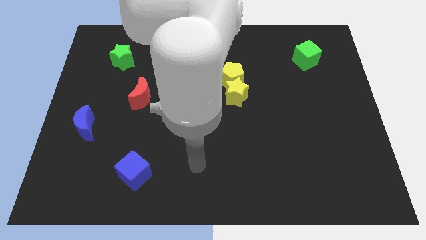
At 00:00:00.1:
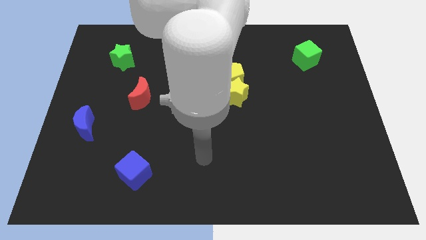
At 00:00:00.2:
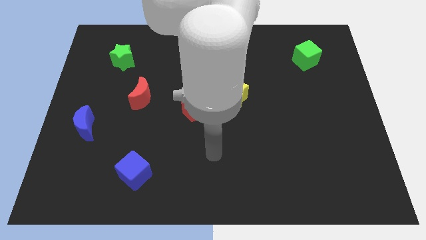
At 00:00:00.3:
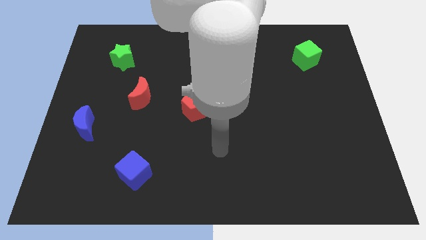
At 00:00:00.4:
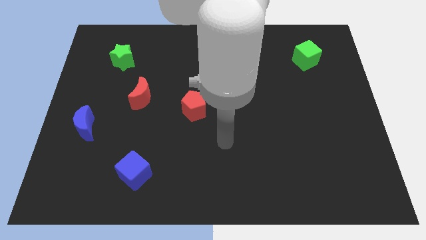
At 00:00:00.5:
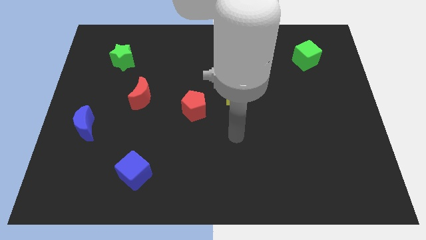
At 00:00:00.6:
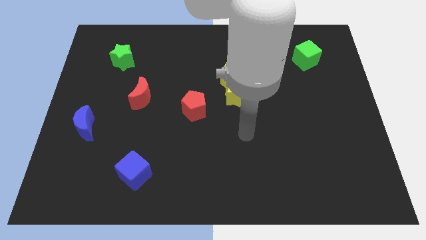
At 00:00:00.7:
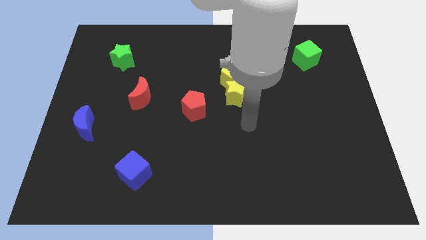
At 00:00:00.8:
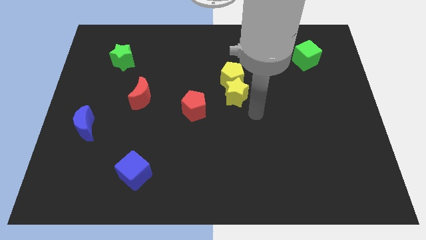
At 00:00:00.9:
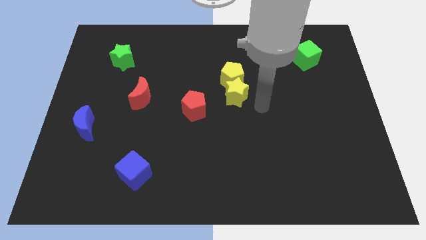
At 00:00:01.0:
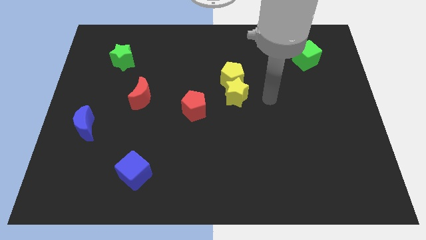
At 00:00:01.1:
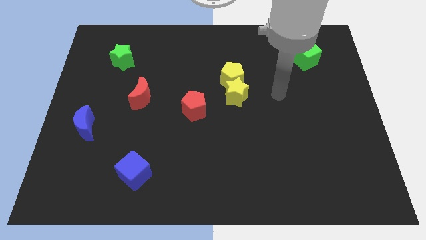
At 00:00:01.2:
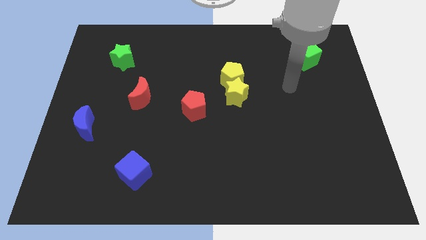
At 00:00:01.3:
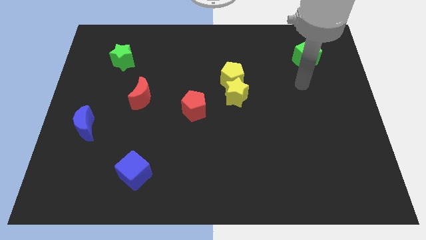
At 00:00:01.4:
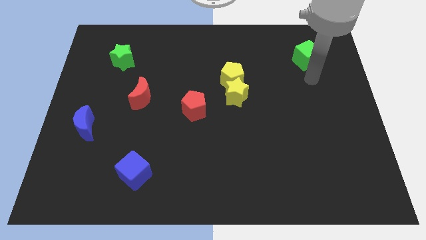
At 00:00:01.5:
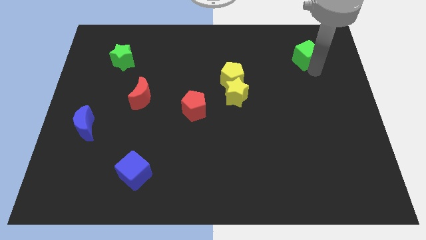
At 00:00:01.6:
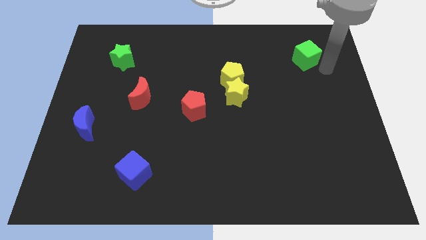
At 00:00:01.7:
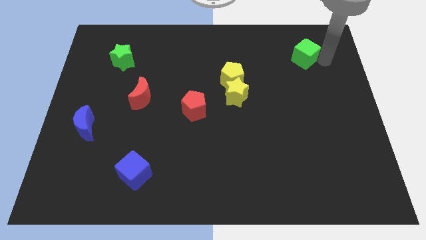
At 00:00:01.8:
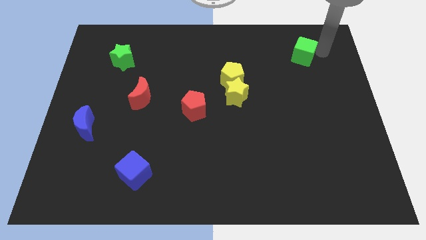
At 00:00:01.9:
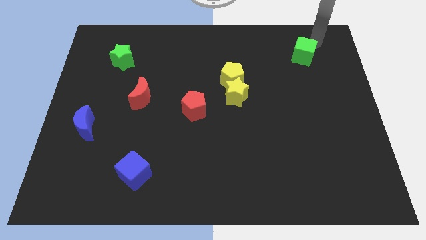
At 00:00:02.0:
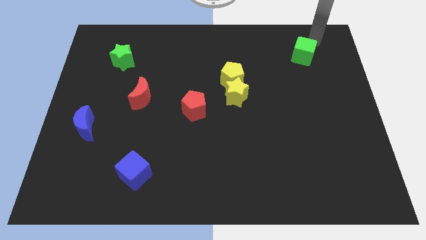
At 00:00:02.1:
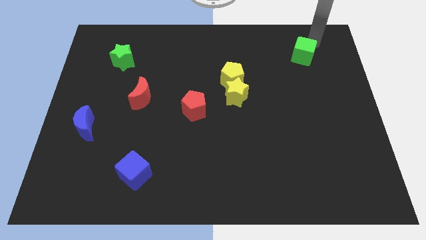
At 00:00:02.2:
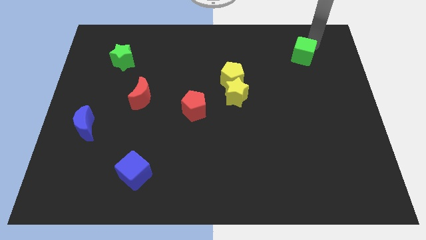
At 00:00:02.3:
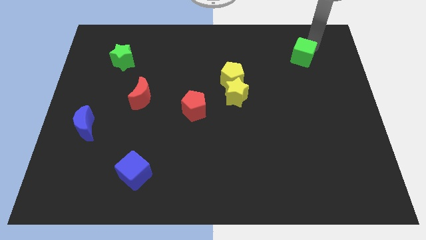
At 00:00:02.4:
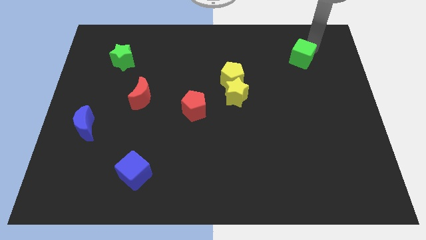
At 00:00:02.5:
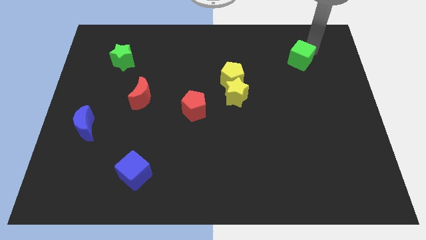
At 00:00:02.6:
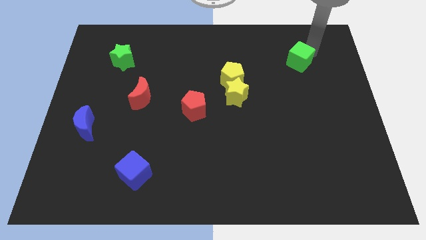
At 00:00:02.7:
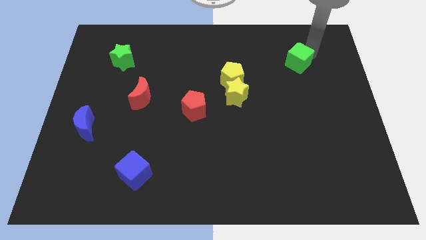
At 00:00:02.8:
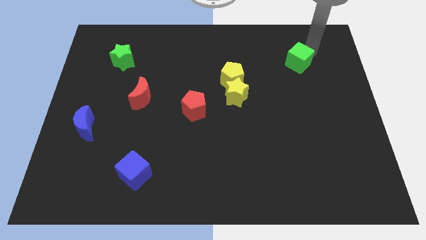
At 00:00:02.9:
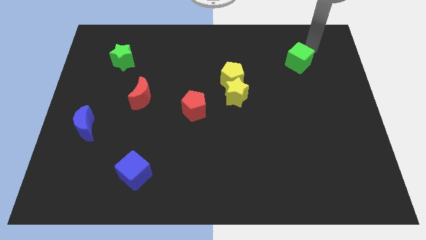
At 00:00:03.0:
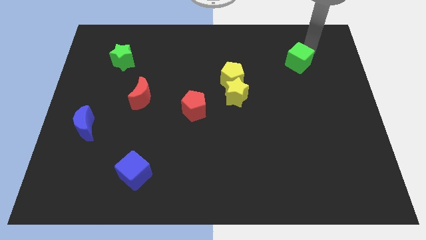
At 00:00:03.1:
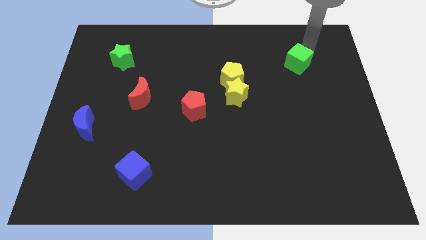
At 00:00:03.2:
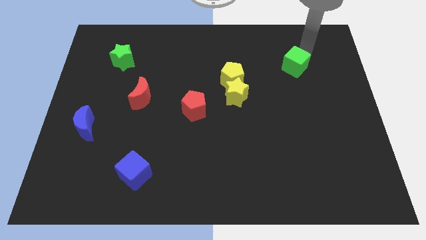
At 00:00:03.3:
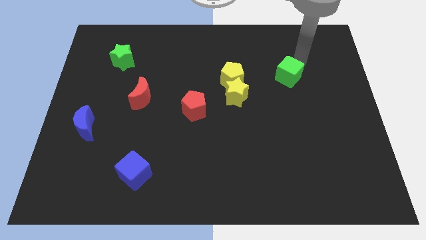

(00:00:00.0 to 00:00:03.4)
push the green cube down and to the left diagonally slightly

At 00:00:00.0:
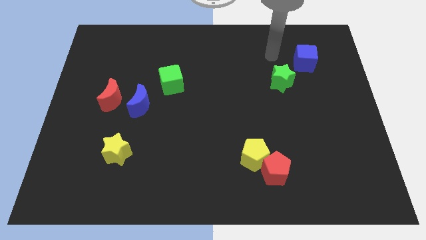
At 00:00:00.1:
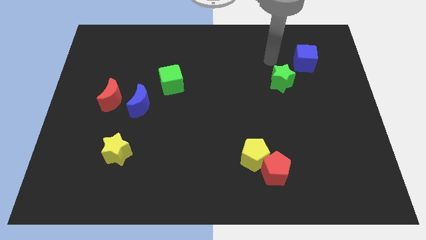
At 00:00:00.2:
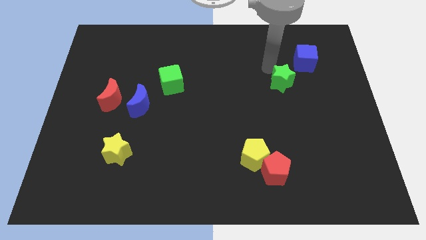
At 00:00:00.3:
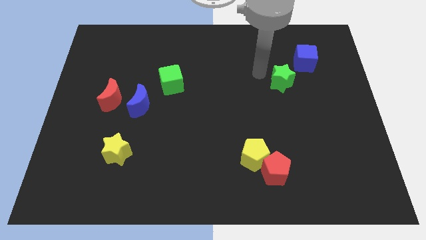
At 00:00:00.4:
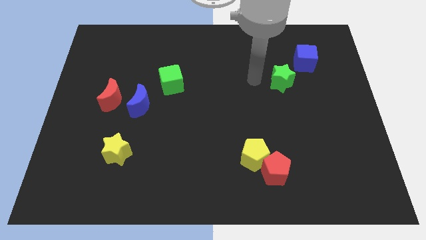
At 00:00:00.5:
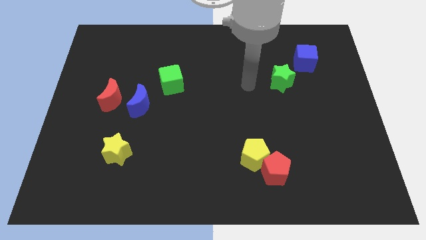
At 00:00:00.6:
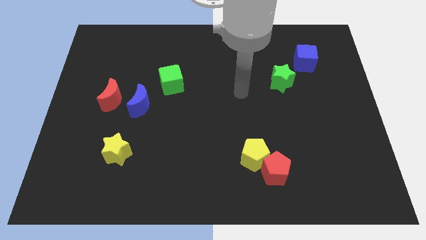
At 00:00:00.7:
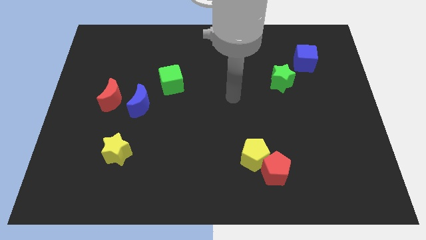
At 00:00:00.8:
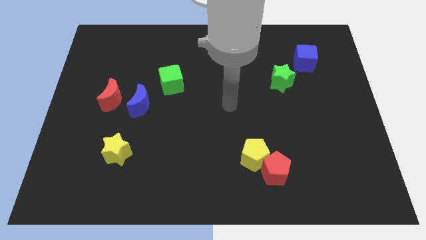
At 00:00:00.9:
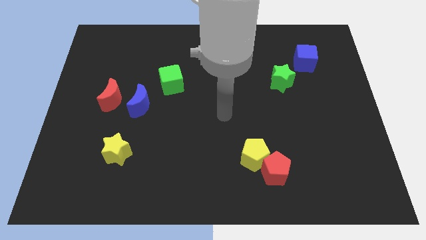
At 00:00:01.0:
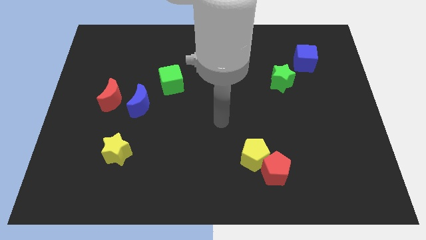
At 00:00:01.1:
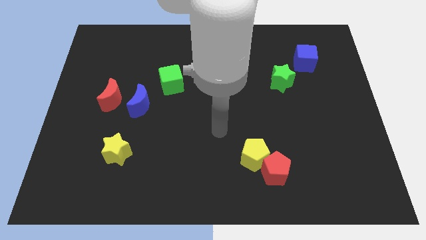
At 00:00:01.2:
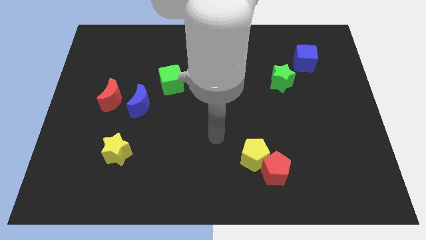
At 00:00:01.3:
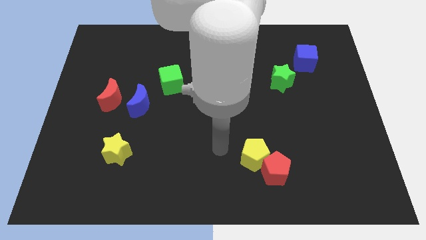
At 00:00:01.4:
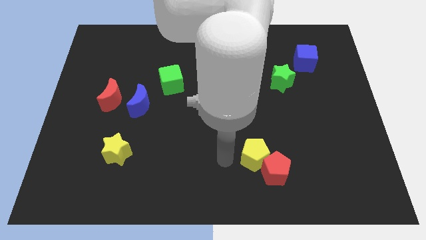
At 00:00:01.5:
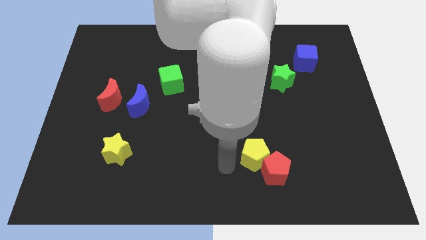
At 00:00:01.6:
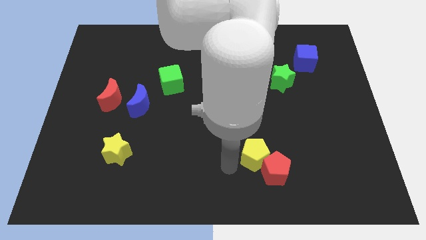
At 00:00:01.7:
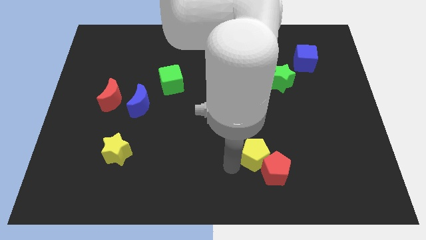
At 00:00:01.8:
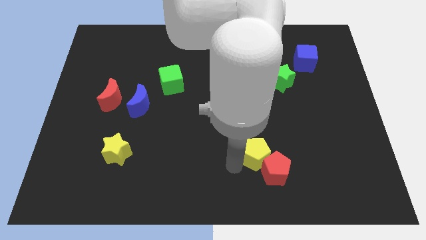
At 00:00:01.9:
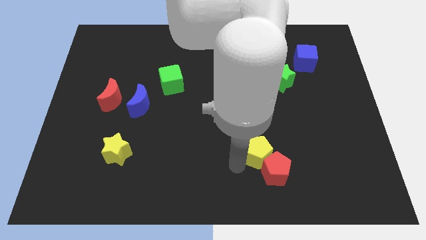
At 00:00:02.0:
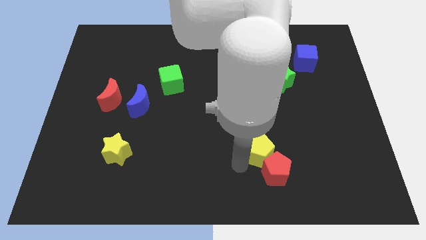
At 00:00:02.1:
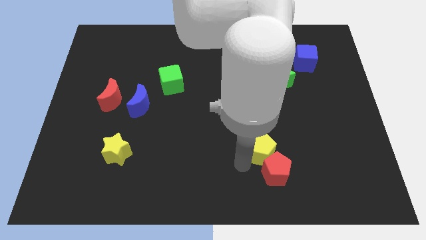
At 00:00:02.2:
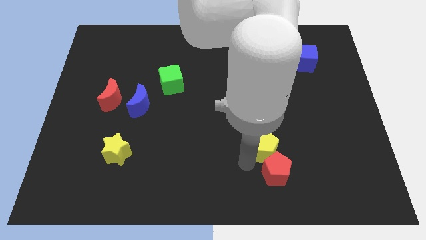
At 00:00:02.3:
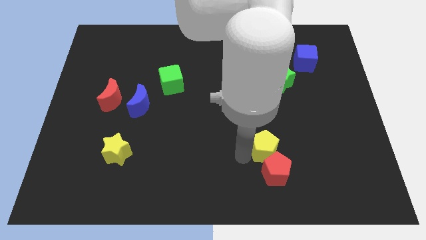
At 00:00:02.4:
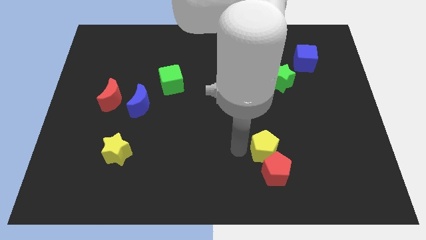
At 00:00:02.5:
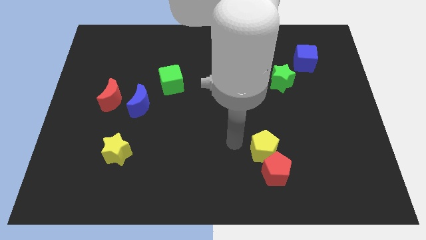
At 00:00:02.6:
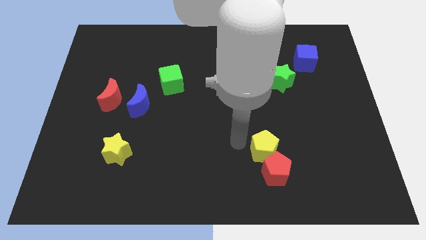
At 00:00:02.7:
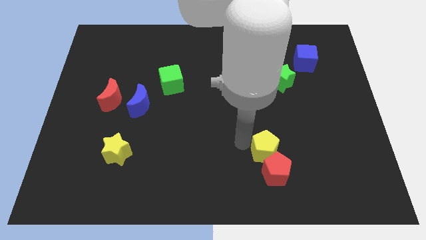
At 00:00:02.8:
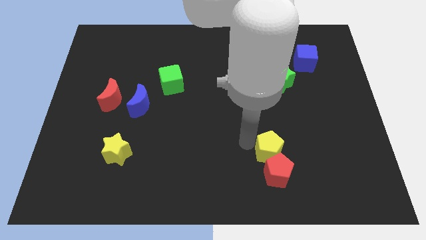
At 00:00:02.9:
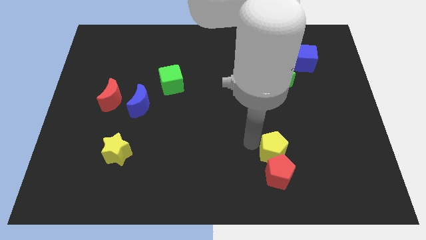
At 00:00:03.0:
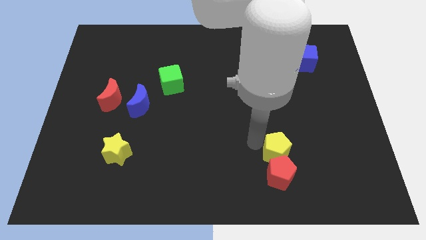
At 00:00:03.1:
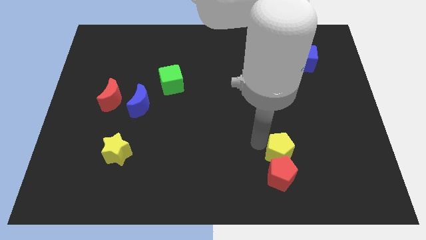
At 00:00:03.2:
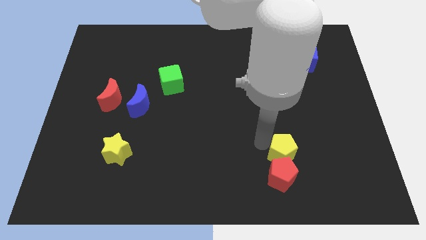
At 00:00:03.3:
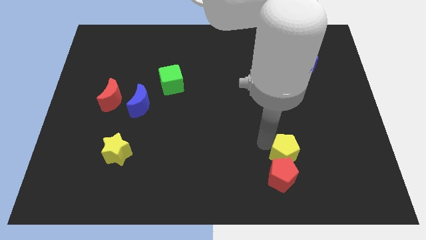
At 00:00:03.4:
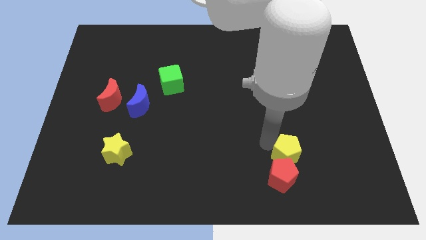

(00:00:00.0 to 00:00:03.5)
slightly push the yellow pentagon to the right

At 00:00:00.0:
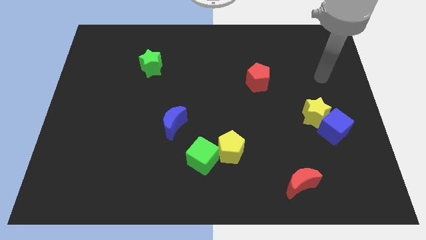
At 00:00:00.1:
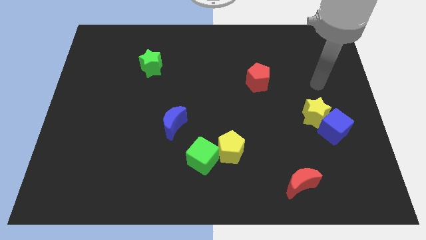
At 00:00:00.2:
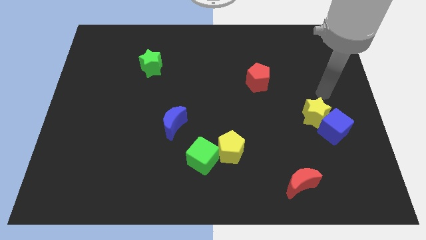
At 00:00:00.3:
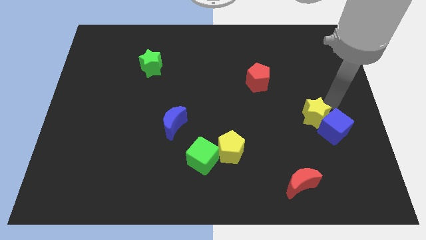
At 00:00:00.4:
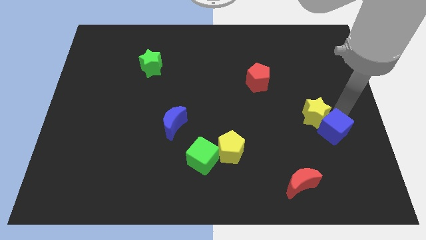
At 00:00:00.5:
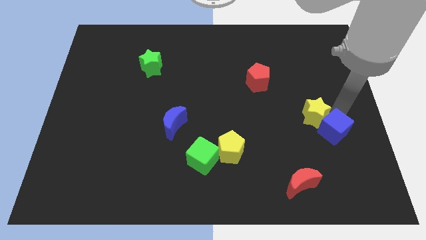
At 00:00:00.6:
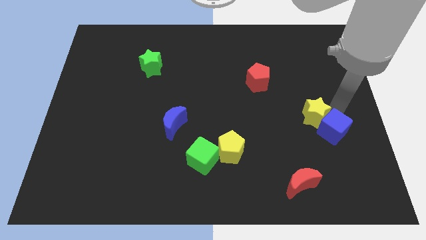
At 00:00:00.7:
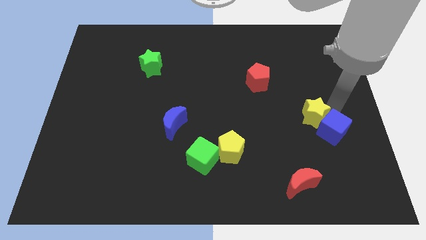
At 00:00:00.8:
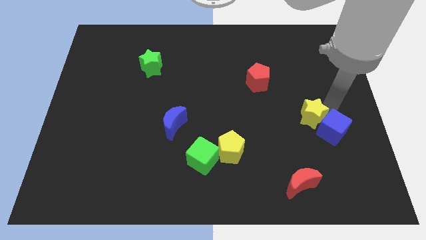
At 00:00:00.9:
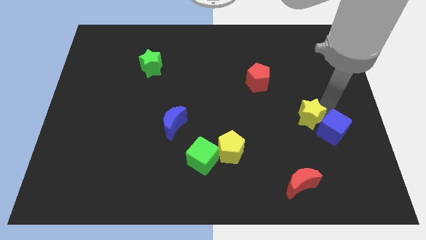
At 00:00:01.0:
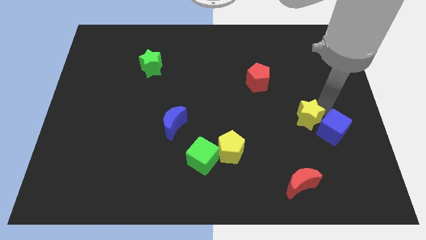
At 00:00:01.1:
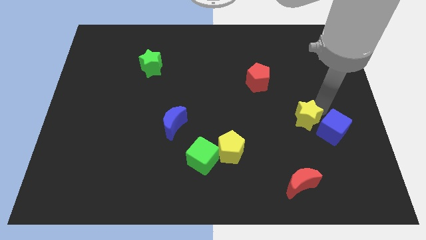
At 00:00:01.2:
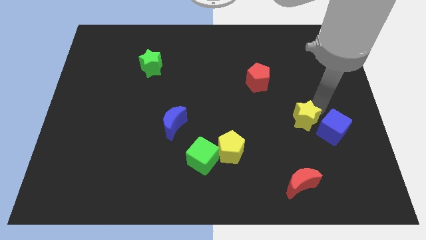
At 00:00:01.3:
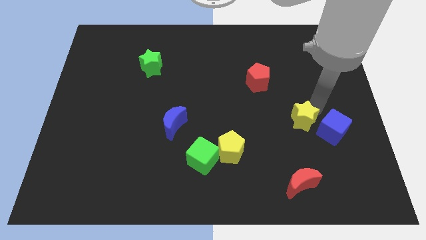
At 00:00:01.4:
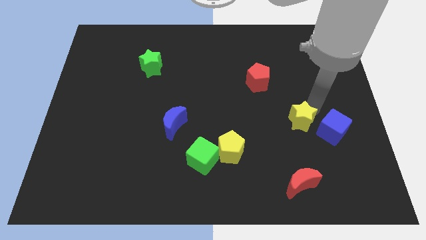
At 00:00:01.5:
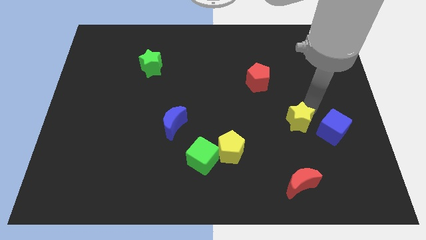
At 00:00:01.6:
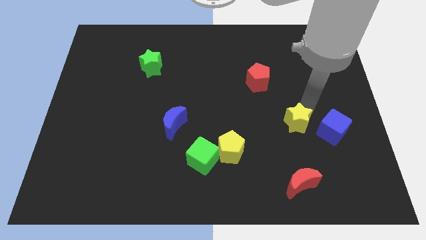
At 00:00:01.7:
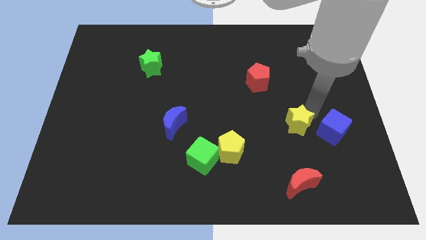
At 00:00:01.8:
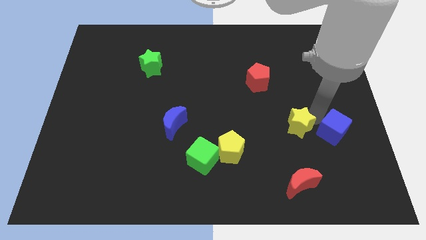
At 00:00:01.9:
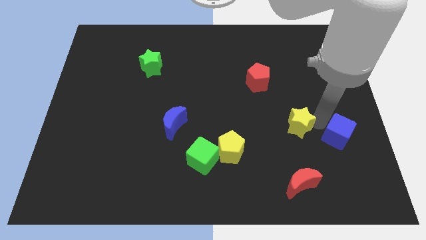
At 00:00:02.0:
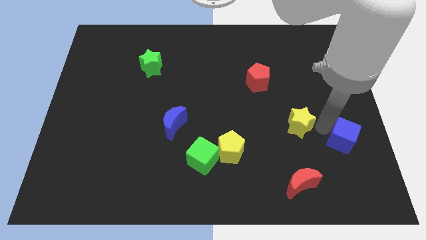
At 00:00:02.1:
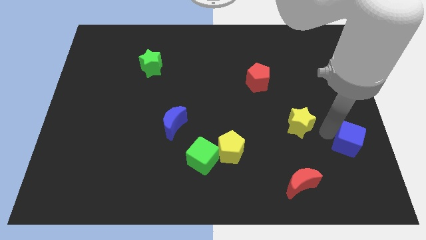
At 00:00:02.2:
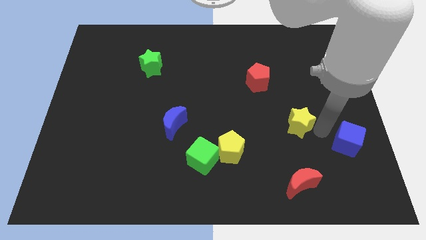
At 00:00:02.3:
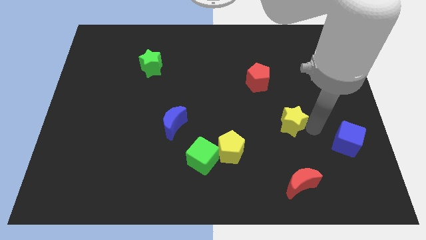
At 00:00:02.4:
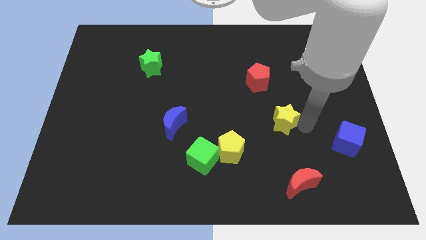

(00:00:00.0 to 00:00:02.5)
push the yellow star to the left a little bit
